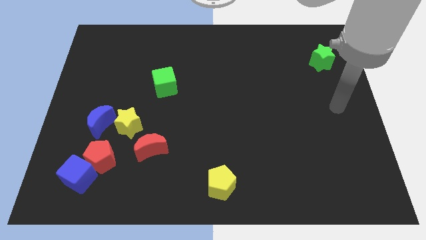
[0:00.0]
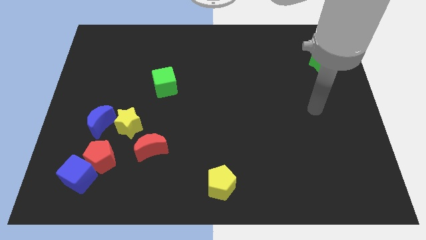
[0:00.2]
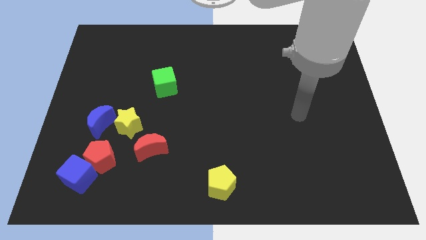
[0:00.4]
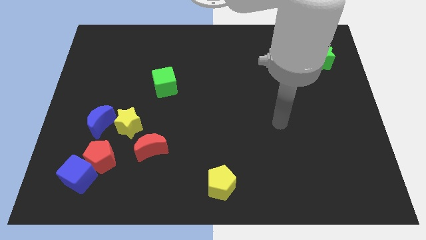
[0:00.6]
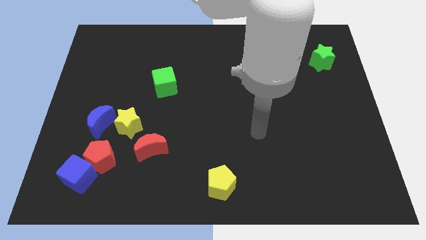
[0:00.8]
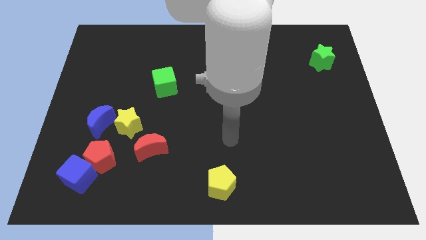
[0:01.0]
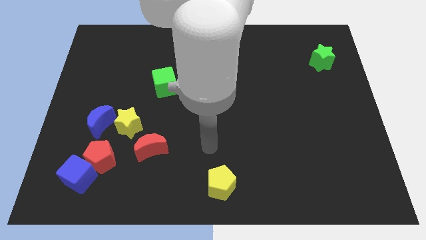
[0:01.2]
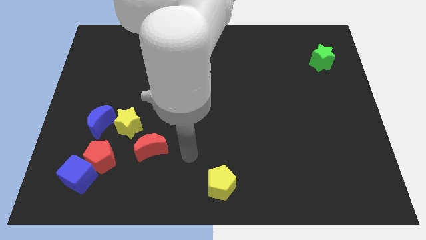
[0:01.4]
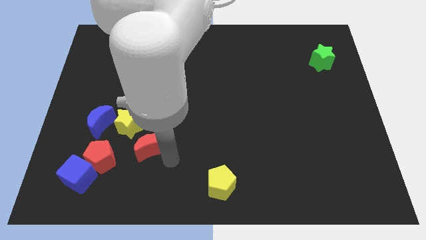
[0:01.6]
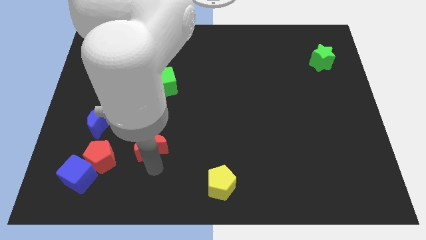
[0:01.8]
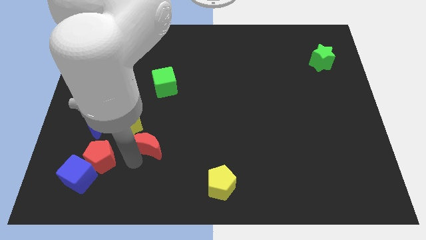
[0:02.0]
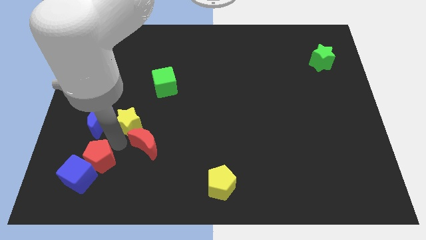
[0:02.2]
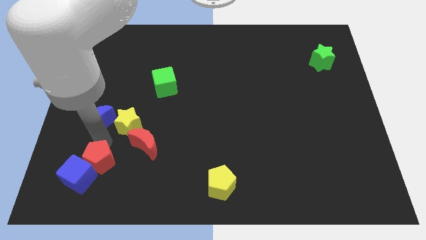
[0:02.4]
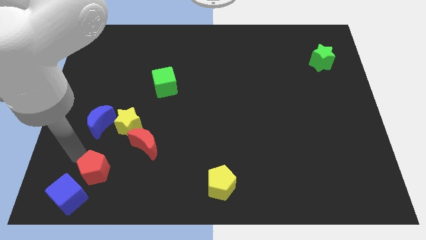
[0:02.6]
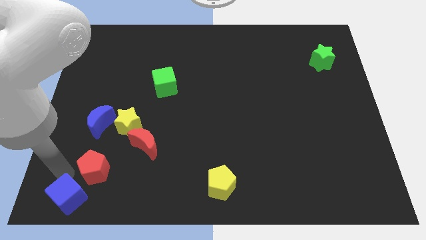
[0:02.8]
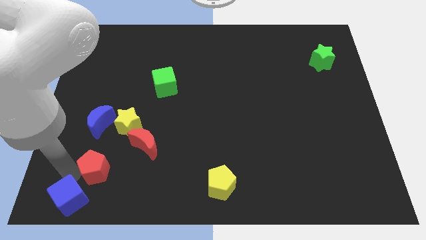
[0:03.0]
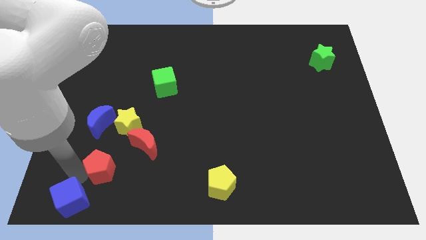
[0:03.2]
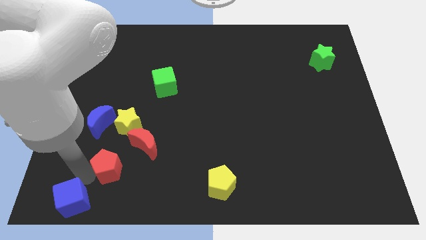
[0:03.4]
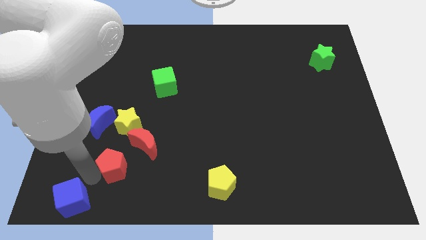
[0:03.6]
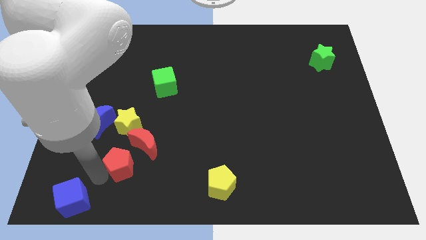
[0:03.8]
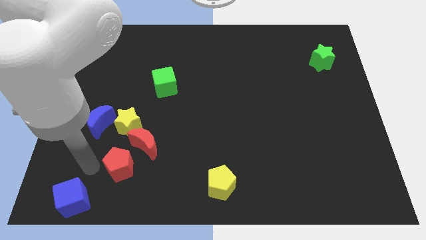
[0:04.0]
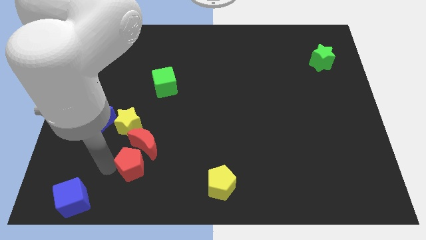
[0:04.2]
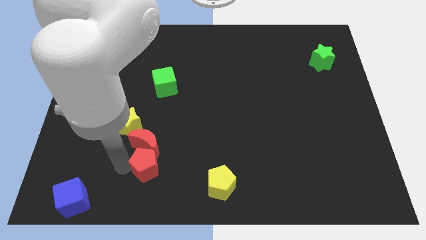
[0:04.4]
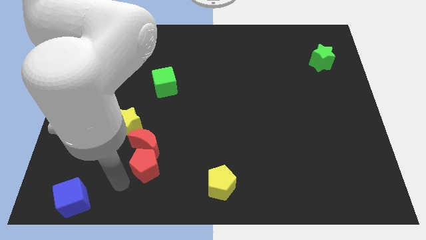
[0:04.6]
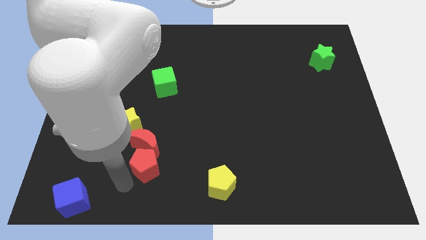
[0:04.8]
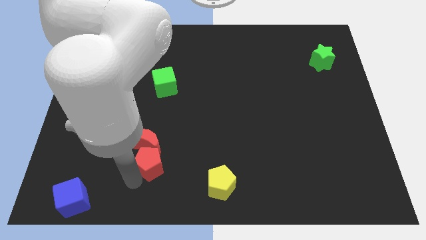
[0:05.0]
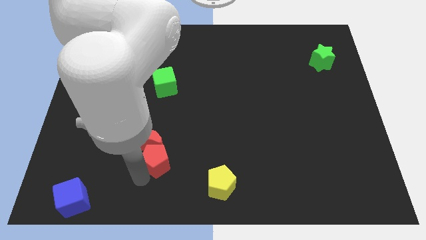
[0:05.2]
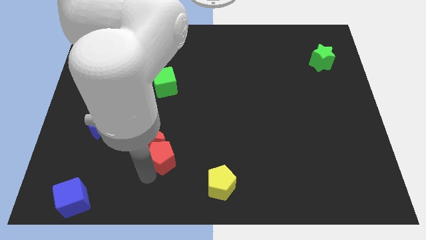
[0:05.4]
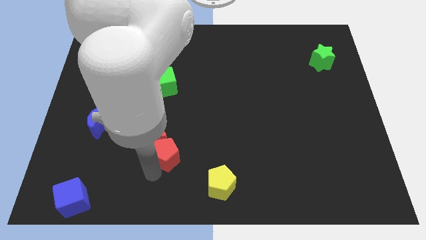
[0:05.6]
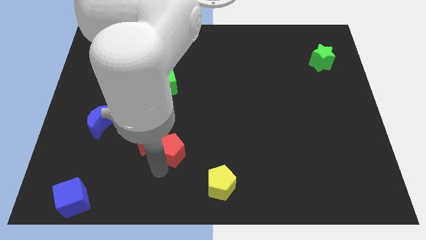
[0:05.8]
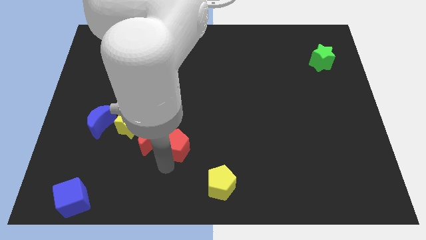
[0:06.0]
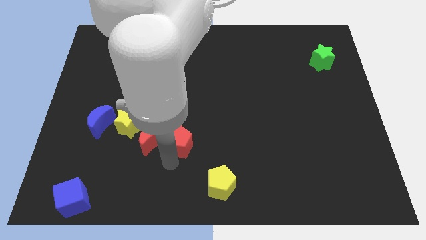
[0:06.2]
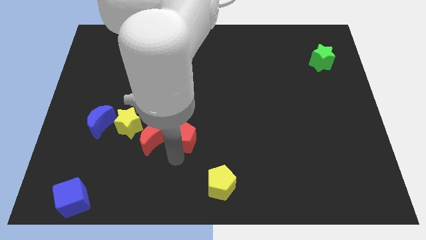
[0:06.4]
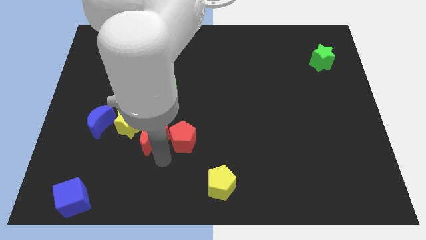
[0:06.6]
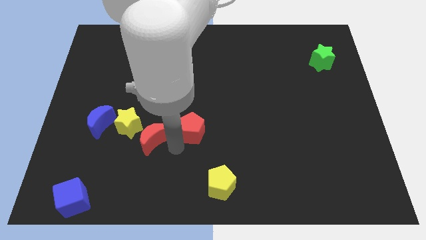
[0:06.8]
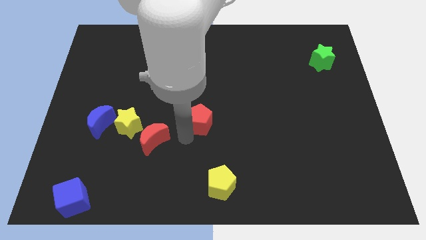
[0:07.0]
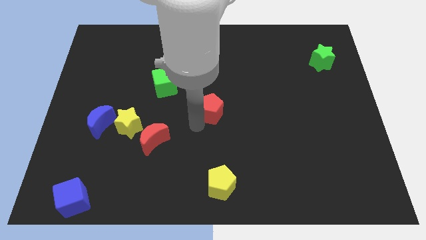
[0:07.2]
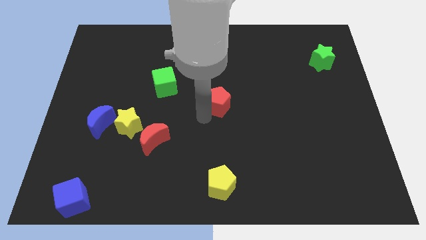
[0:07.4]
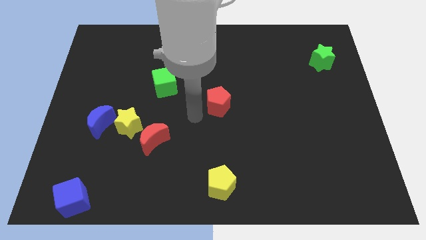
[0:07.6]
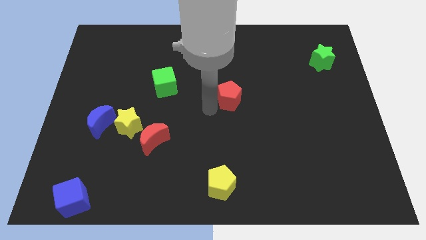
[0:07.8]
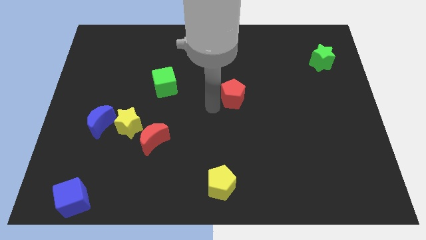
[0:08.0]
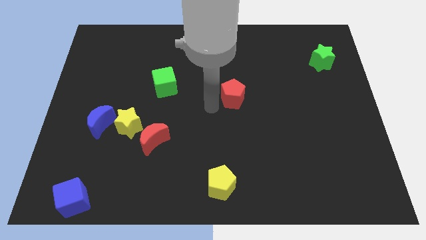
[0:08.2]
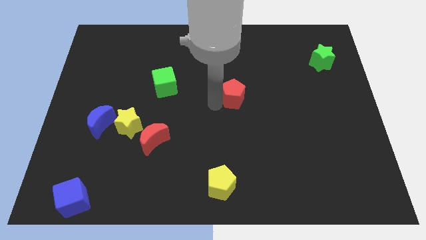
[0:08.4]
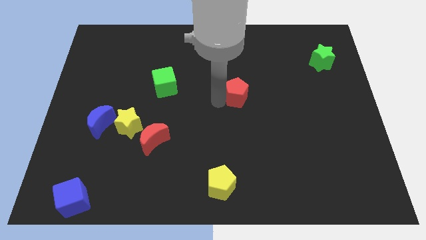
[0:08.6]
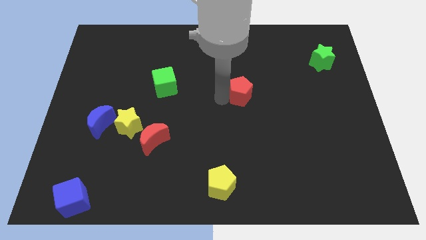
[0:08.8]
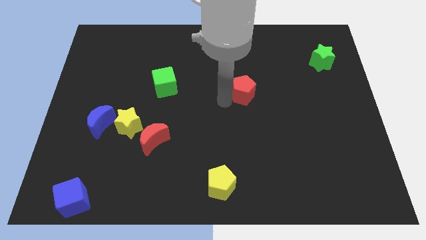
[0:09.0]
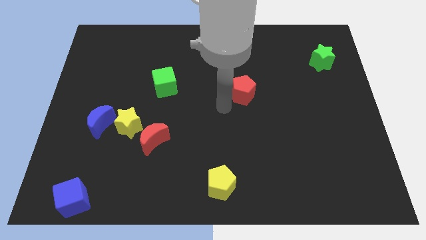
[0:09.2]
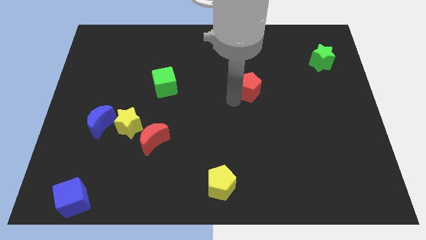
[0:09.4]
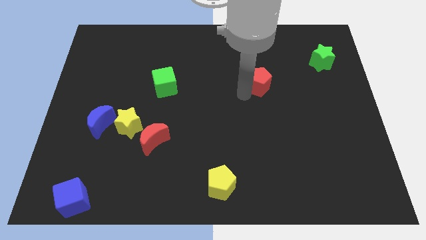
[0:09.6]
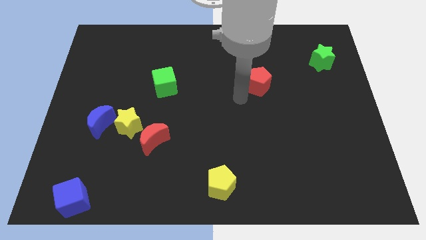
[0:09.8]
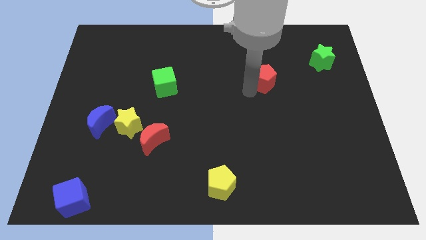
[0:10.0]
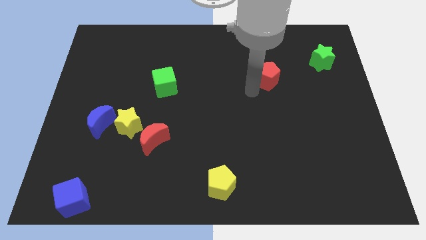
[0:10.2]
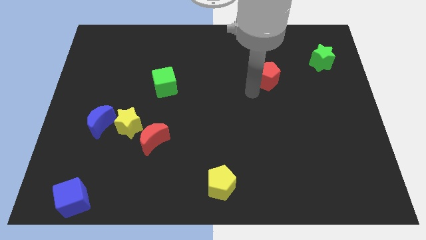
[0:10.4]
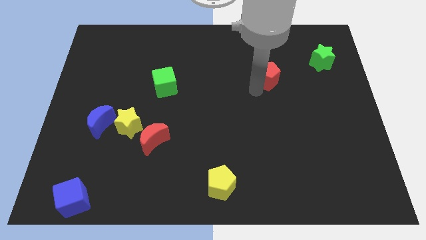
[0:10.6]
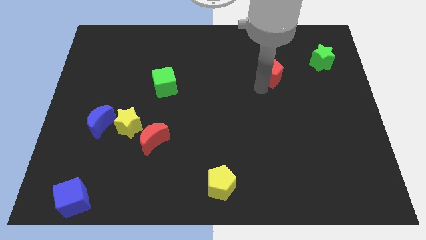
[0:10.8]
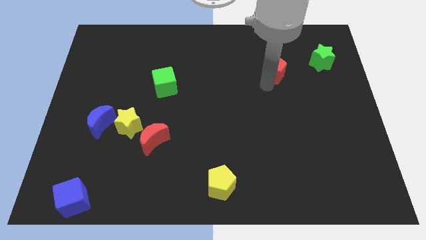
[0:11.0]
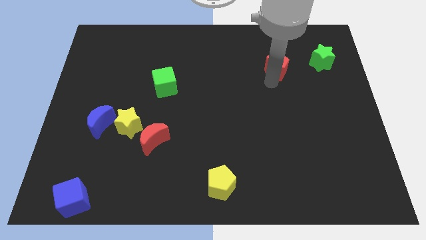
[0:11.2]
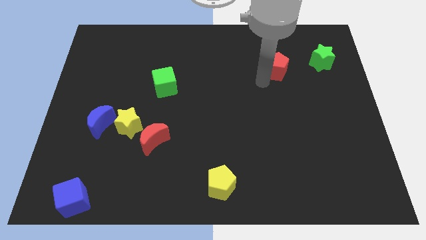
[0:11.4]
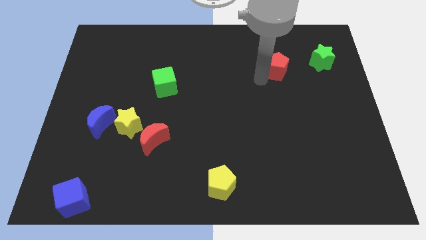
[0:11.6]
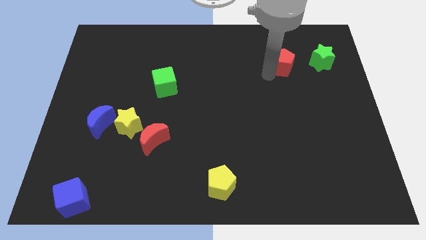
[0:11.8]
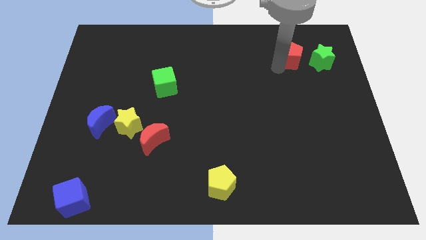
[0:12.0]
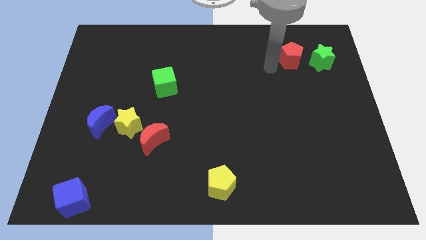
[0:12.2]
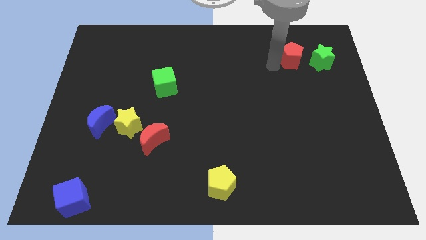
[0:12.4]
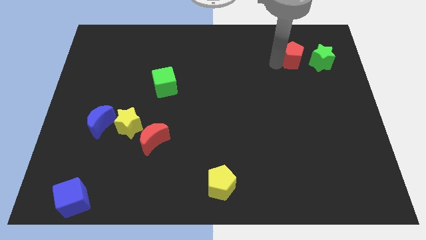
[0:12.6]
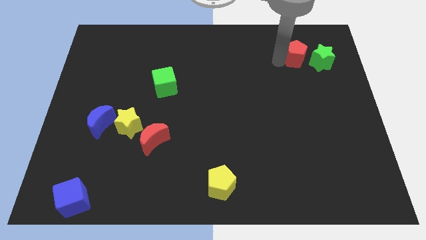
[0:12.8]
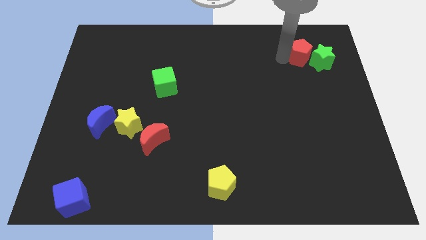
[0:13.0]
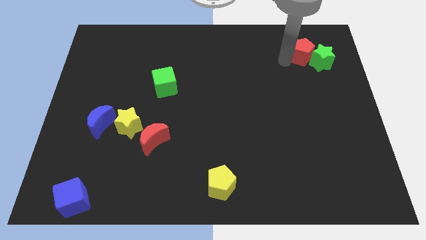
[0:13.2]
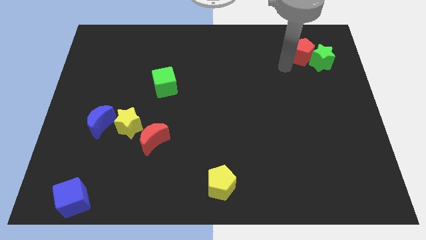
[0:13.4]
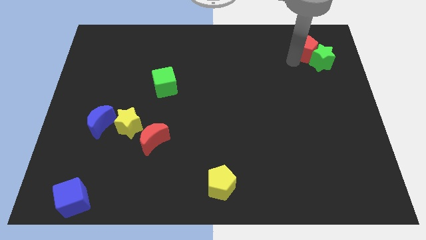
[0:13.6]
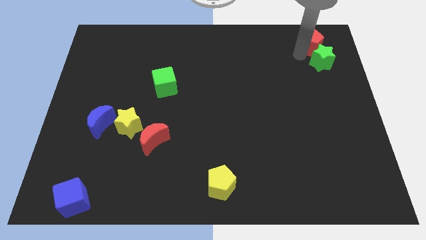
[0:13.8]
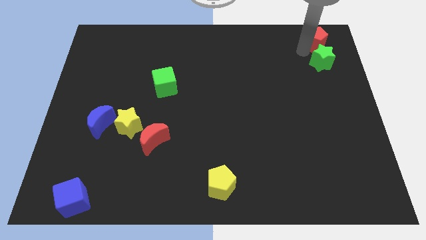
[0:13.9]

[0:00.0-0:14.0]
put the red pentagon to the upper right corner

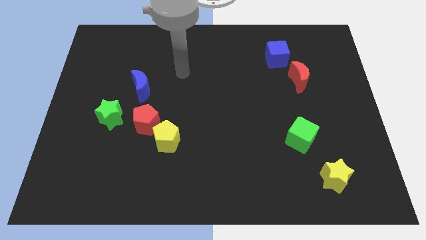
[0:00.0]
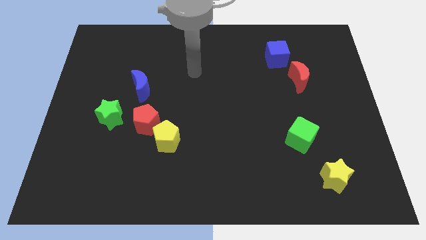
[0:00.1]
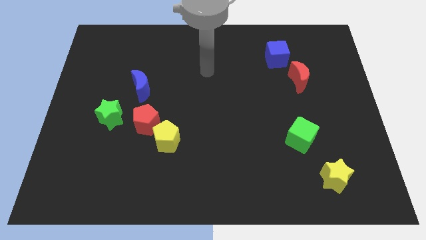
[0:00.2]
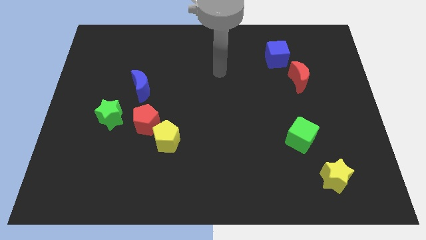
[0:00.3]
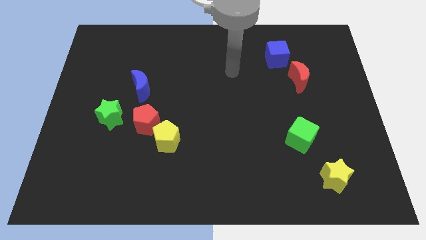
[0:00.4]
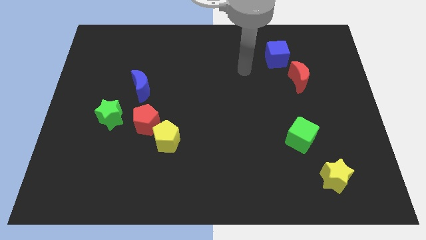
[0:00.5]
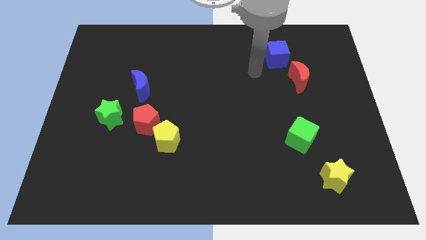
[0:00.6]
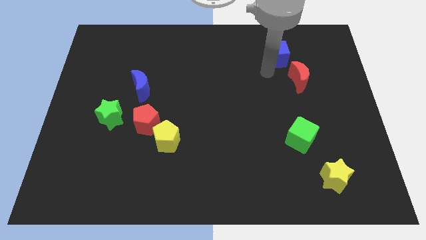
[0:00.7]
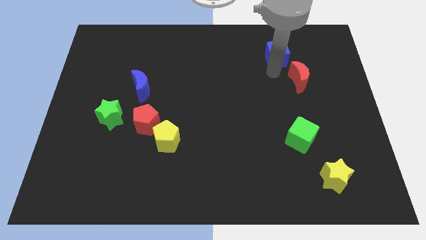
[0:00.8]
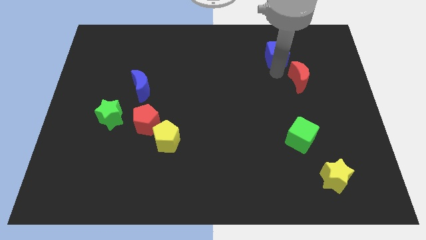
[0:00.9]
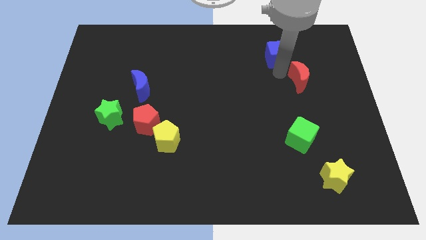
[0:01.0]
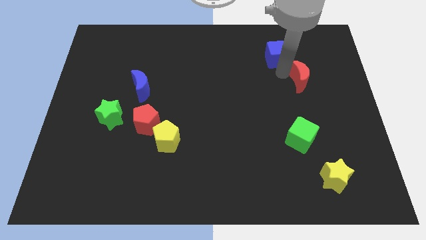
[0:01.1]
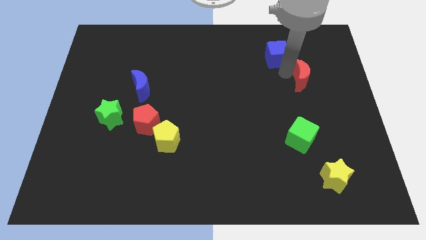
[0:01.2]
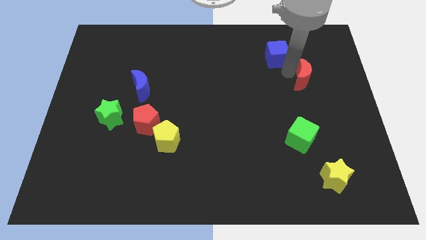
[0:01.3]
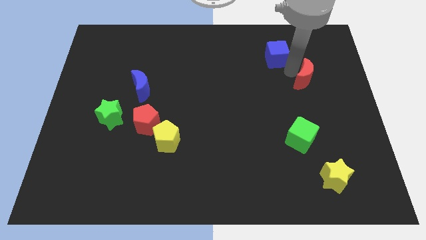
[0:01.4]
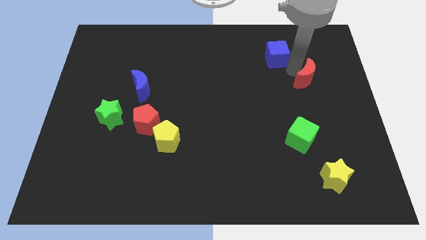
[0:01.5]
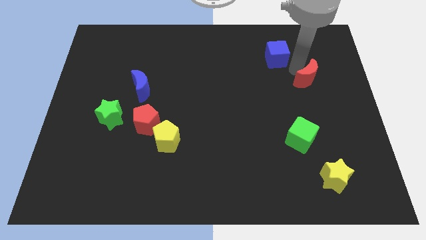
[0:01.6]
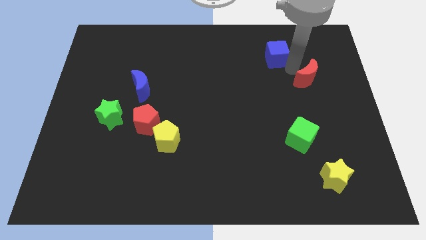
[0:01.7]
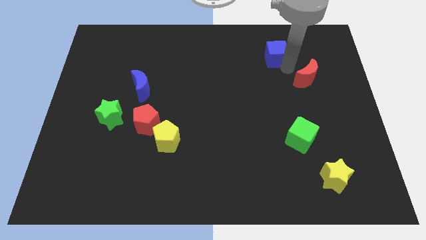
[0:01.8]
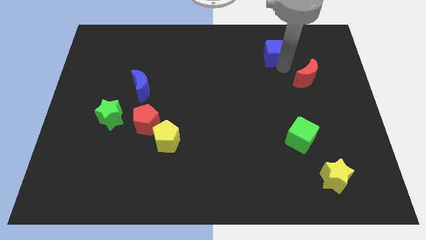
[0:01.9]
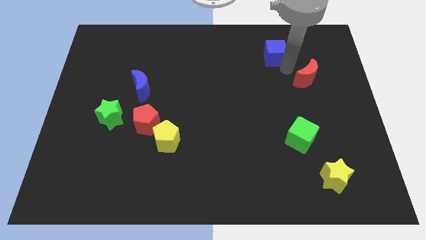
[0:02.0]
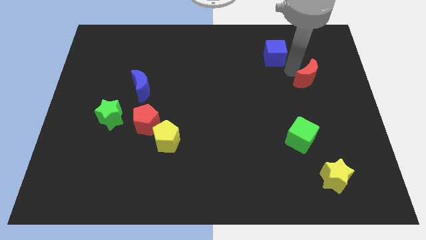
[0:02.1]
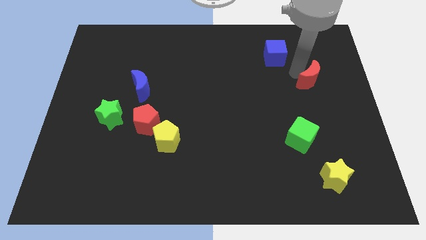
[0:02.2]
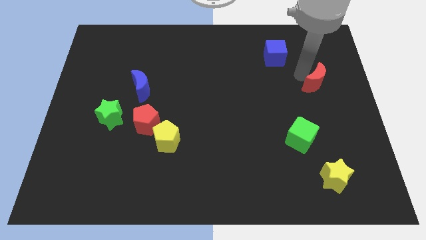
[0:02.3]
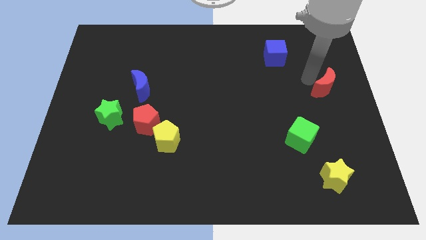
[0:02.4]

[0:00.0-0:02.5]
move the red moon to the right side
